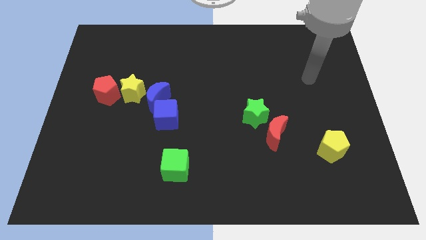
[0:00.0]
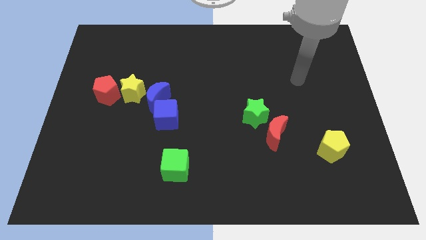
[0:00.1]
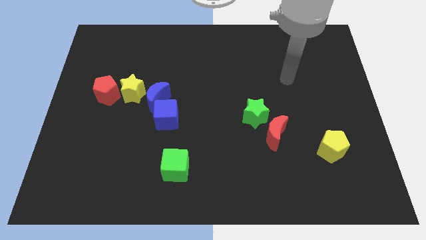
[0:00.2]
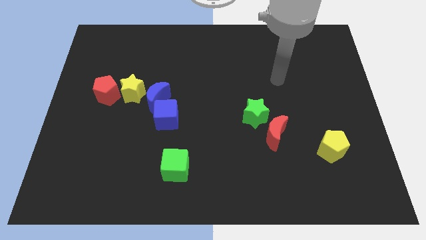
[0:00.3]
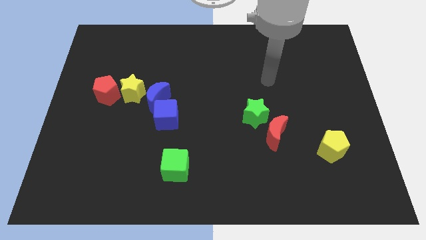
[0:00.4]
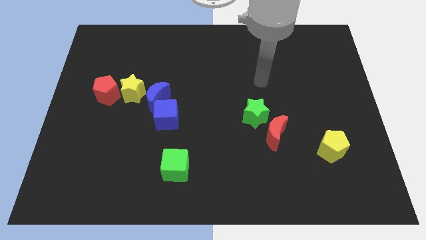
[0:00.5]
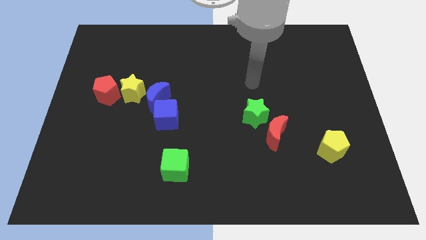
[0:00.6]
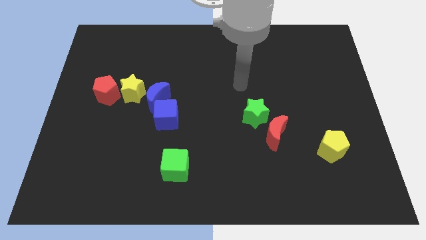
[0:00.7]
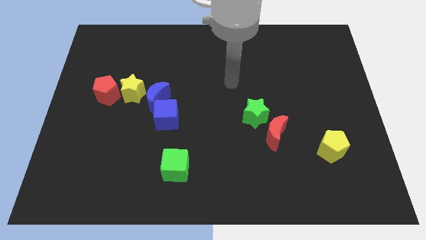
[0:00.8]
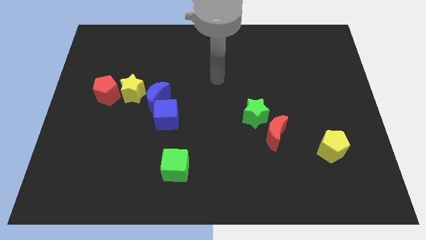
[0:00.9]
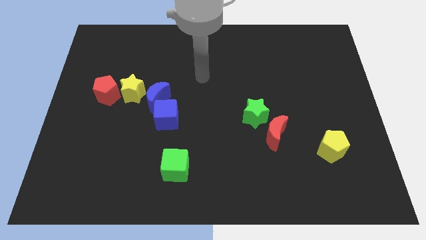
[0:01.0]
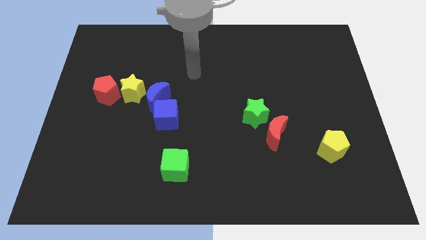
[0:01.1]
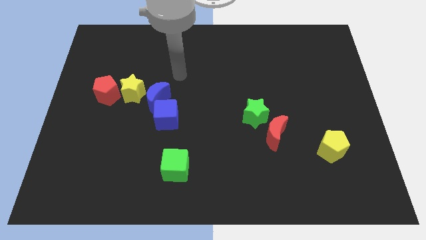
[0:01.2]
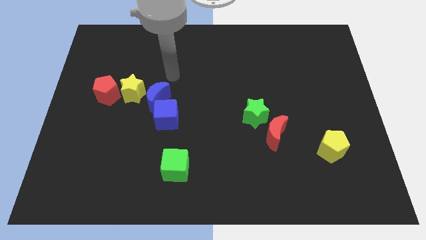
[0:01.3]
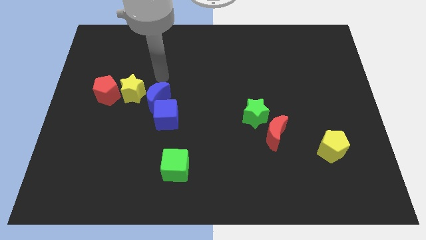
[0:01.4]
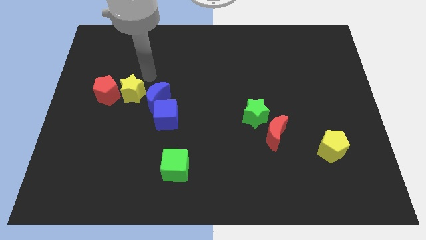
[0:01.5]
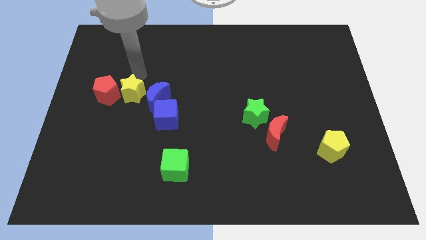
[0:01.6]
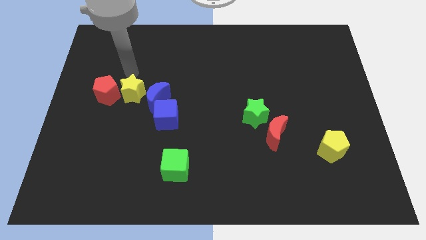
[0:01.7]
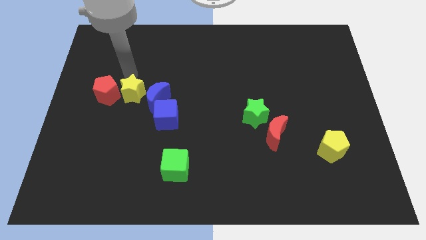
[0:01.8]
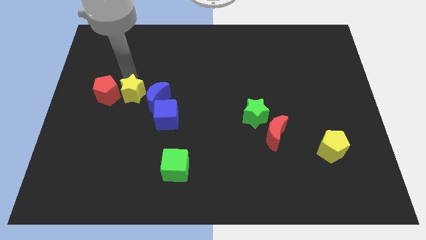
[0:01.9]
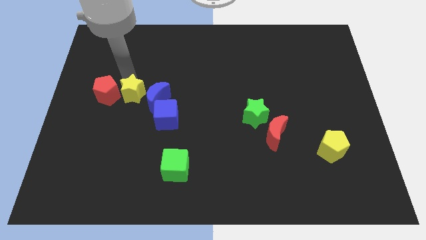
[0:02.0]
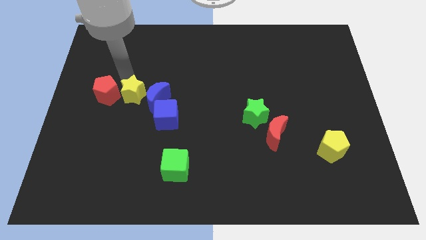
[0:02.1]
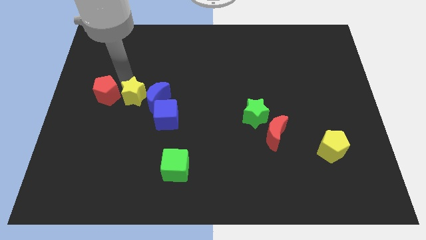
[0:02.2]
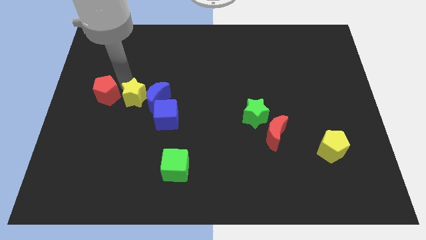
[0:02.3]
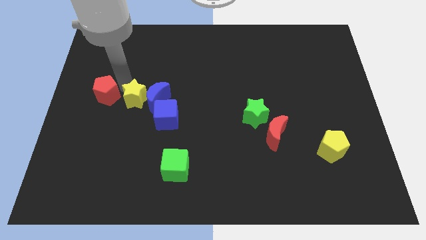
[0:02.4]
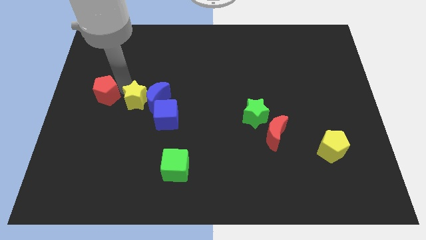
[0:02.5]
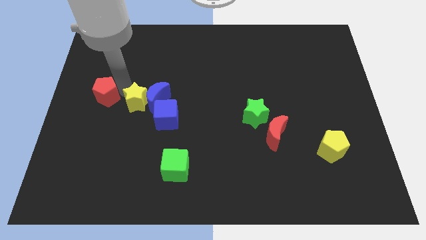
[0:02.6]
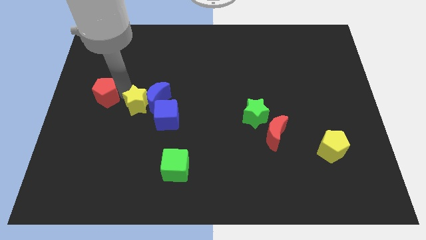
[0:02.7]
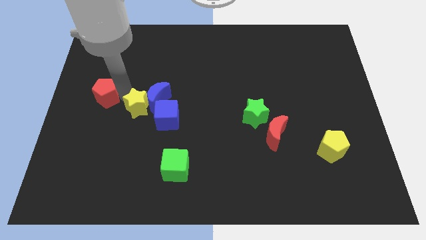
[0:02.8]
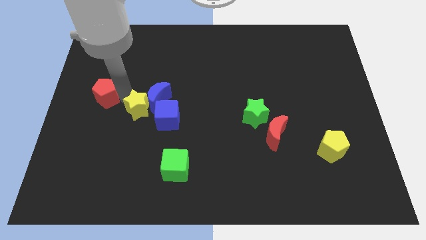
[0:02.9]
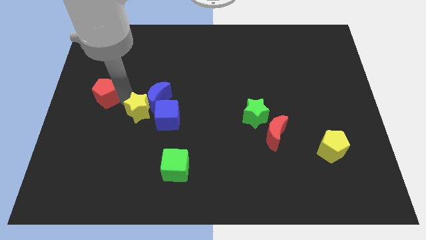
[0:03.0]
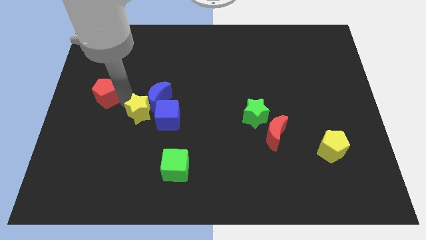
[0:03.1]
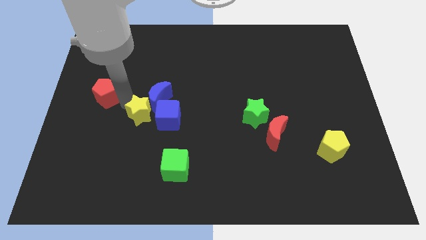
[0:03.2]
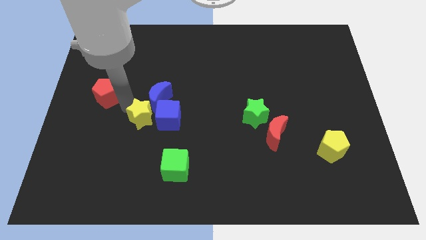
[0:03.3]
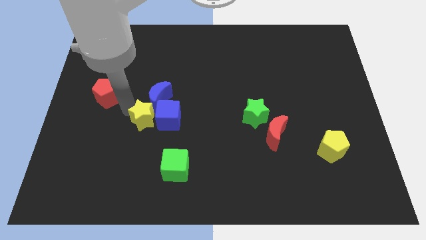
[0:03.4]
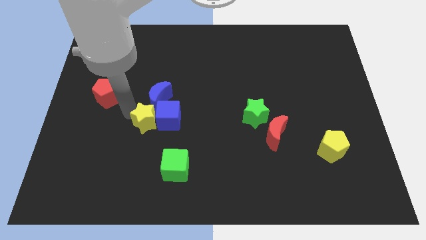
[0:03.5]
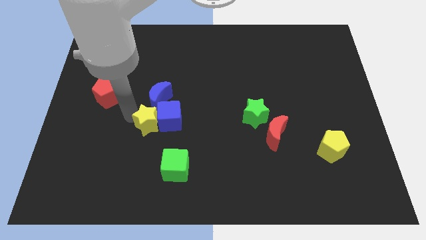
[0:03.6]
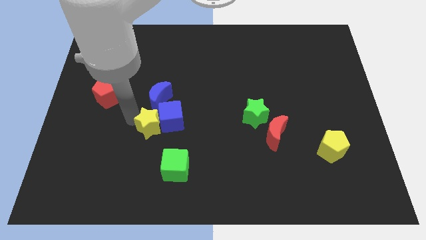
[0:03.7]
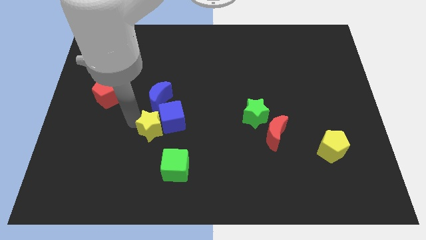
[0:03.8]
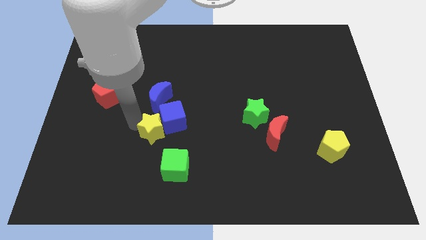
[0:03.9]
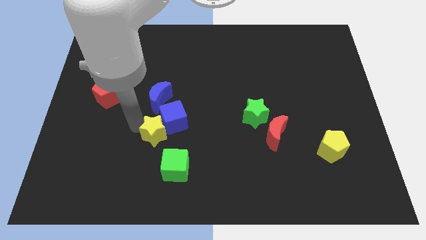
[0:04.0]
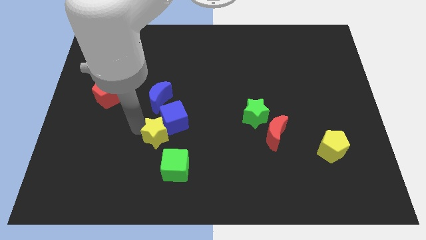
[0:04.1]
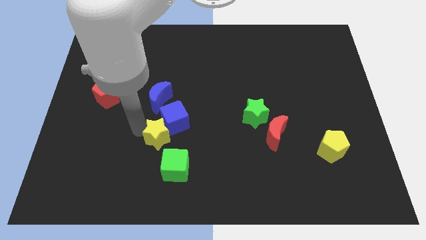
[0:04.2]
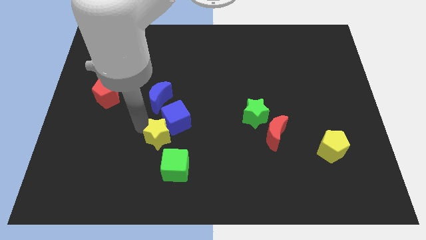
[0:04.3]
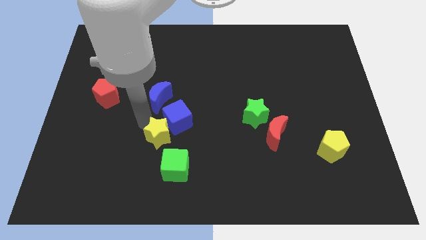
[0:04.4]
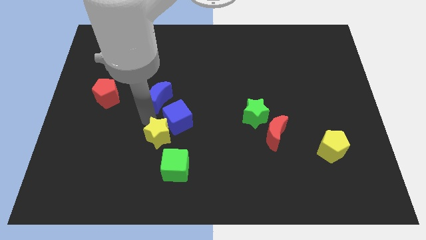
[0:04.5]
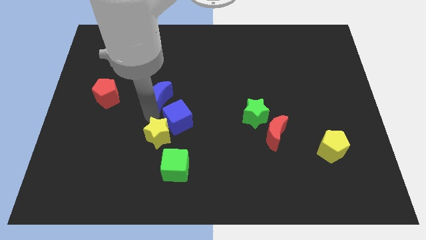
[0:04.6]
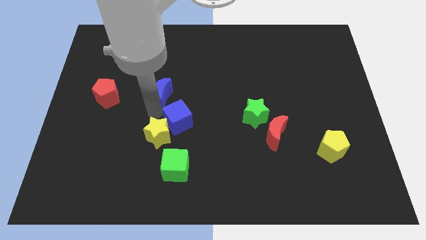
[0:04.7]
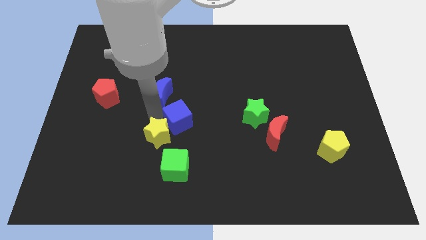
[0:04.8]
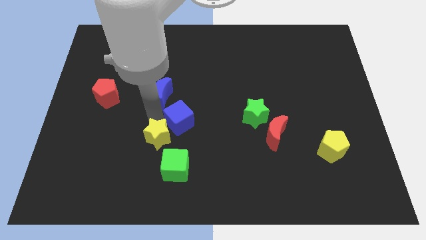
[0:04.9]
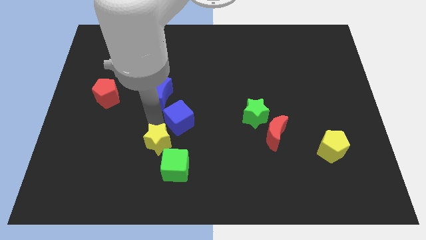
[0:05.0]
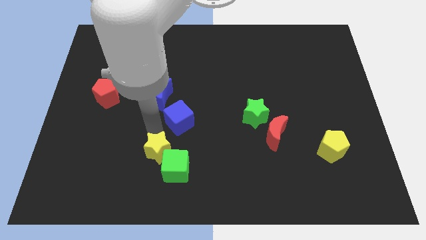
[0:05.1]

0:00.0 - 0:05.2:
move the yellow star close to the green cube

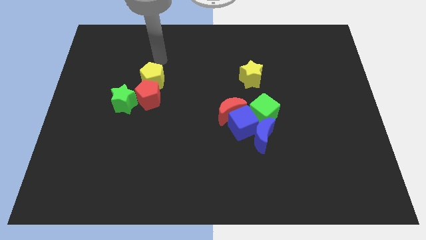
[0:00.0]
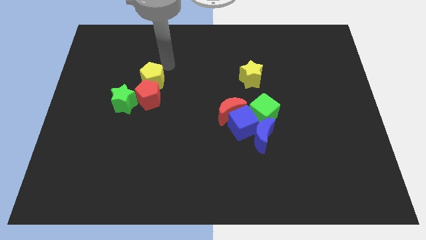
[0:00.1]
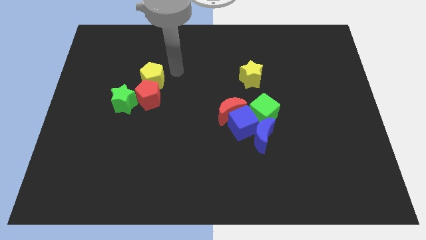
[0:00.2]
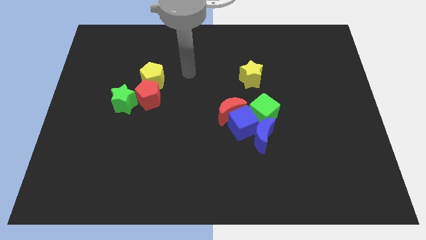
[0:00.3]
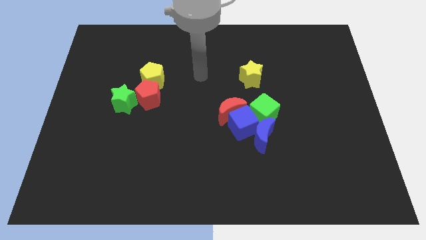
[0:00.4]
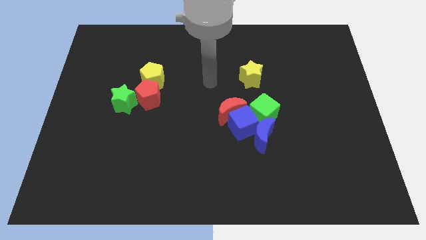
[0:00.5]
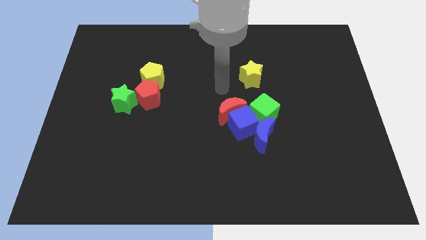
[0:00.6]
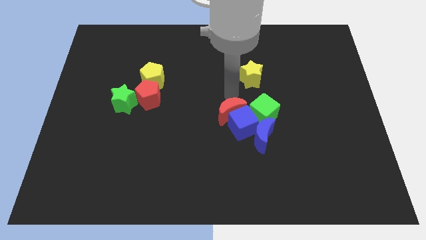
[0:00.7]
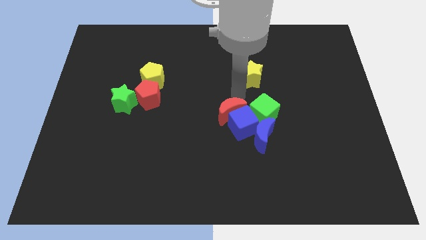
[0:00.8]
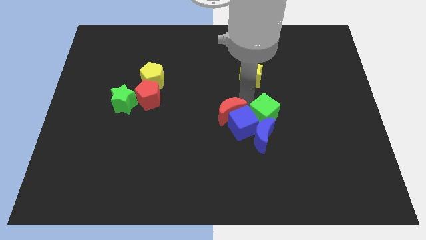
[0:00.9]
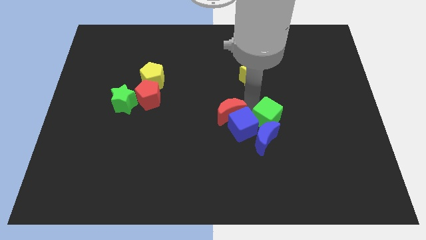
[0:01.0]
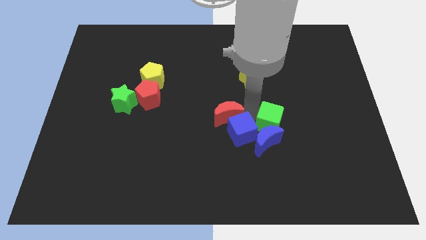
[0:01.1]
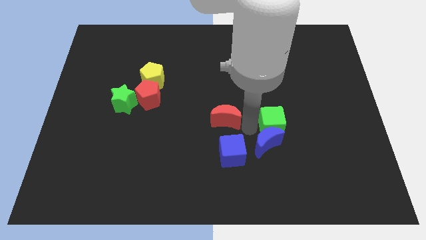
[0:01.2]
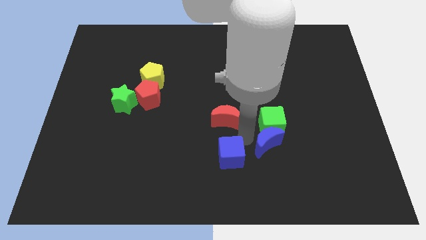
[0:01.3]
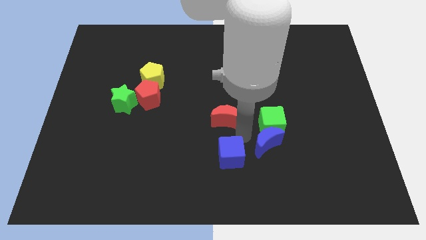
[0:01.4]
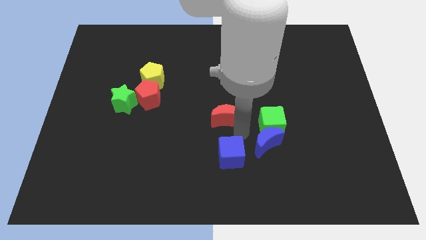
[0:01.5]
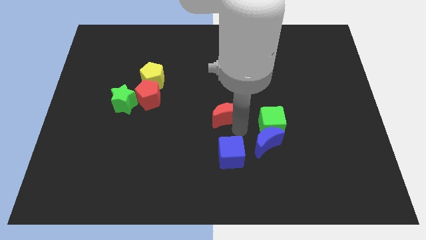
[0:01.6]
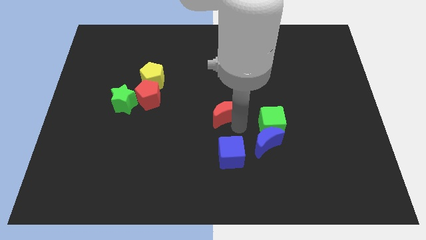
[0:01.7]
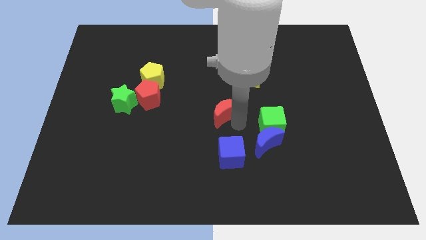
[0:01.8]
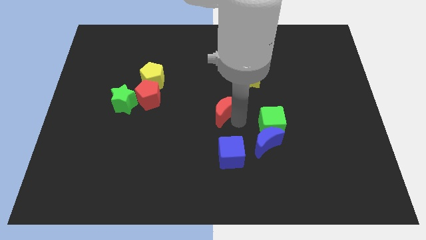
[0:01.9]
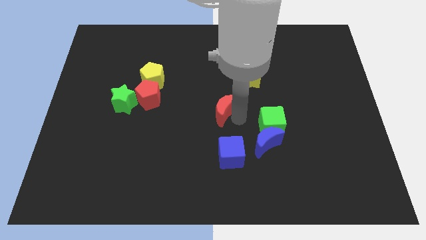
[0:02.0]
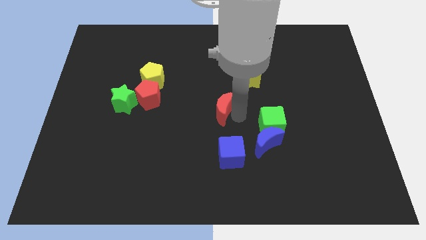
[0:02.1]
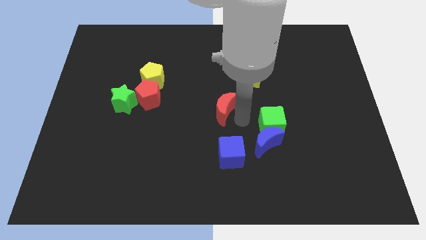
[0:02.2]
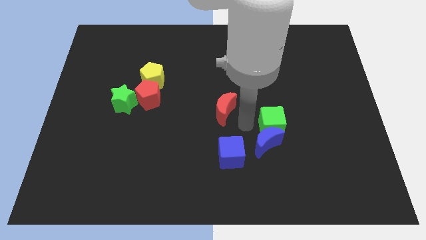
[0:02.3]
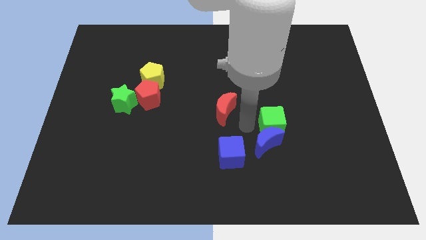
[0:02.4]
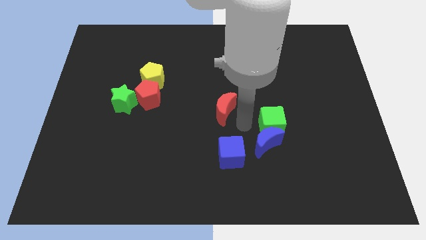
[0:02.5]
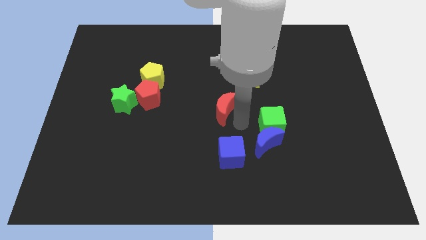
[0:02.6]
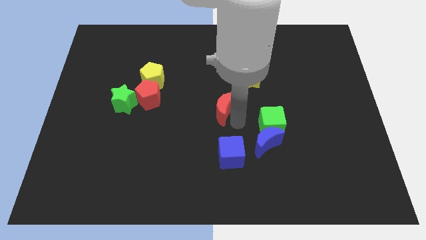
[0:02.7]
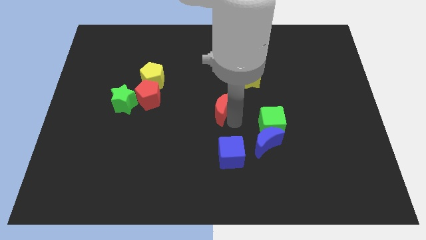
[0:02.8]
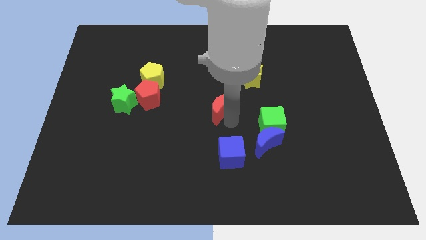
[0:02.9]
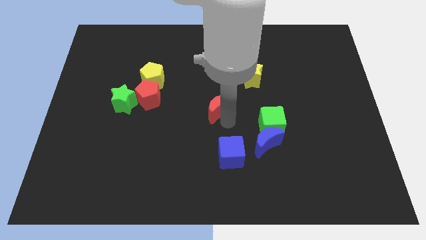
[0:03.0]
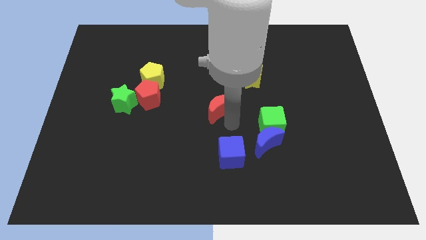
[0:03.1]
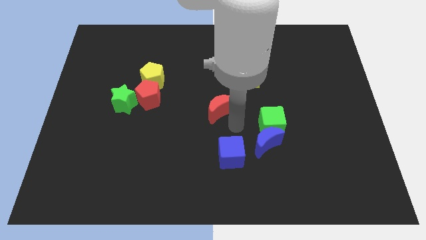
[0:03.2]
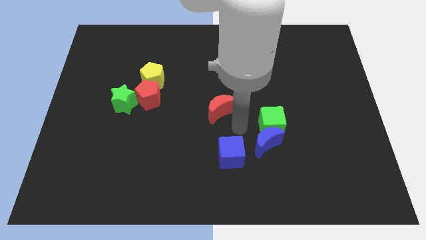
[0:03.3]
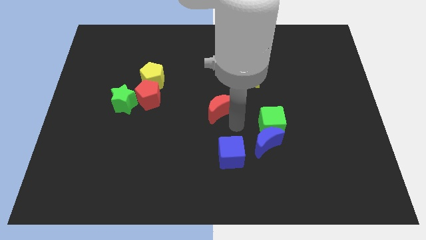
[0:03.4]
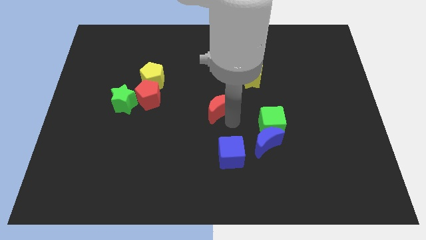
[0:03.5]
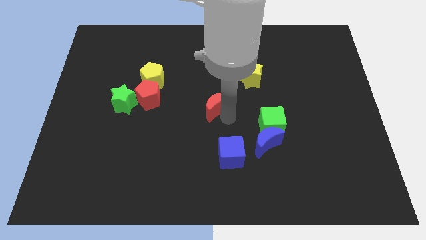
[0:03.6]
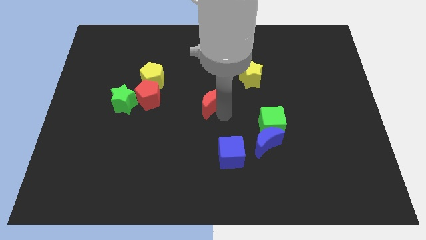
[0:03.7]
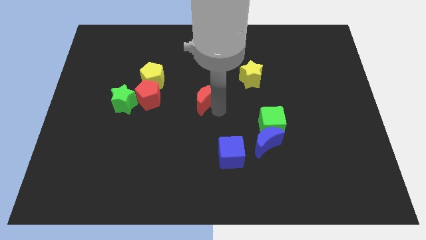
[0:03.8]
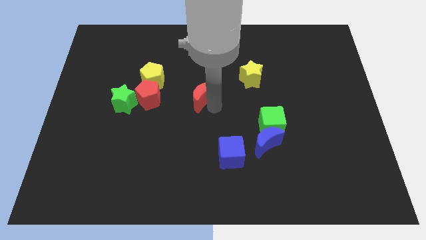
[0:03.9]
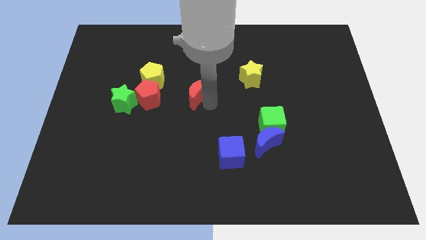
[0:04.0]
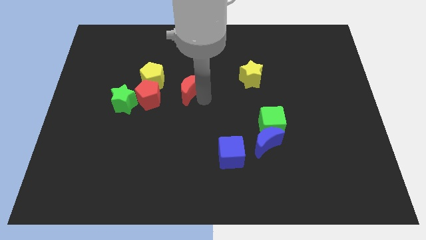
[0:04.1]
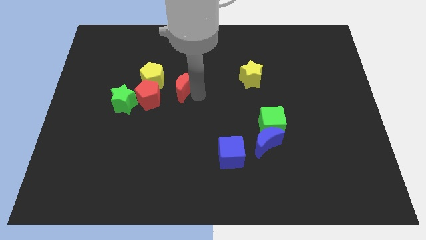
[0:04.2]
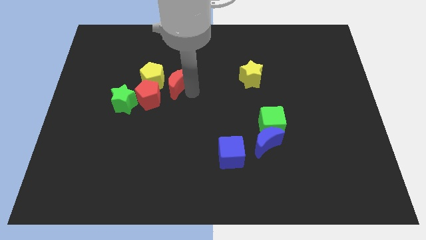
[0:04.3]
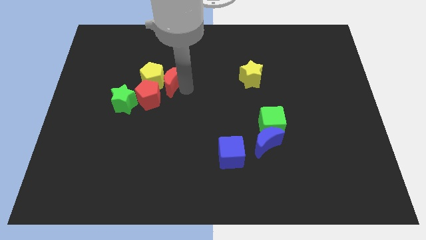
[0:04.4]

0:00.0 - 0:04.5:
slide the red moon to the yellow pentagon
